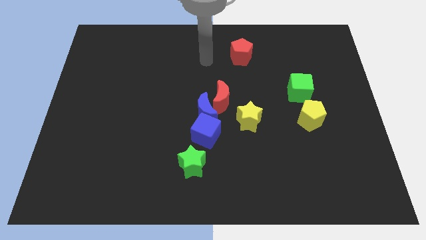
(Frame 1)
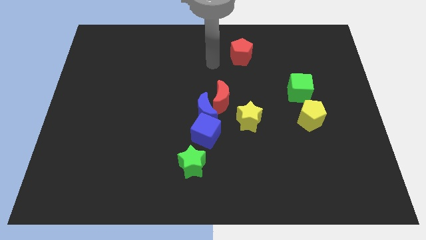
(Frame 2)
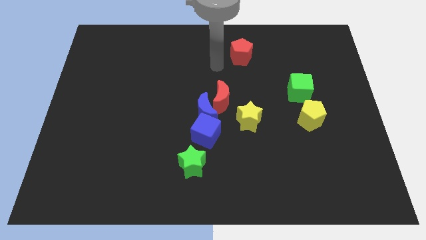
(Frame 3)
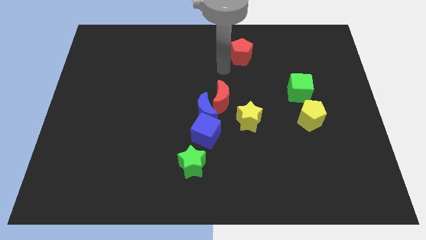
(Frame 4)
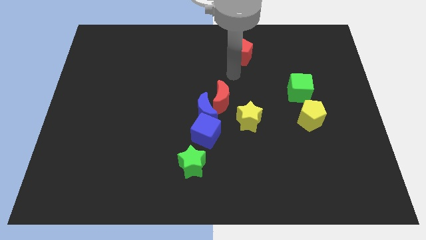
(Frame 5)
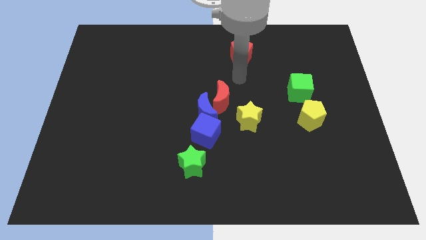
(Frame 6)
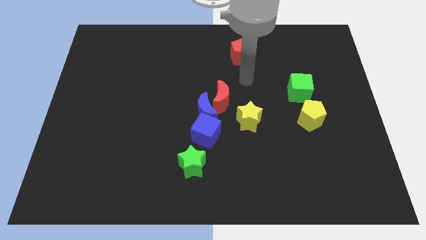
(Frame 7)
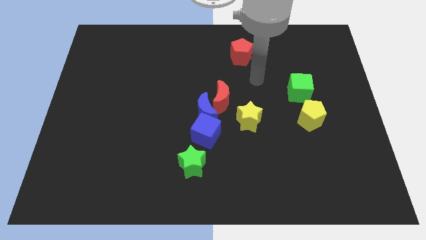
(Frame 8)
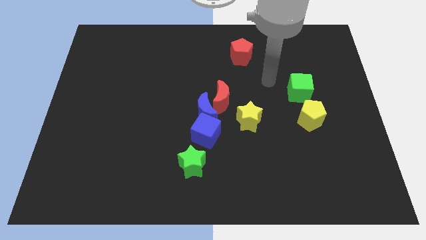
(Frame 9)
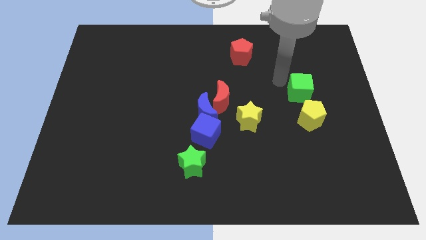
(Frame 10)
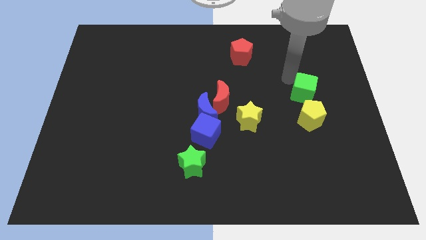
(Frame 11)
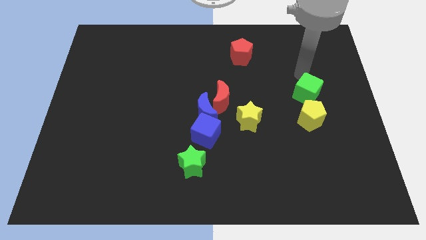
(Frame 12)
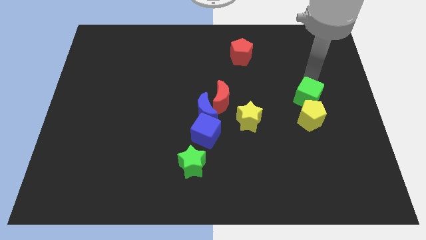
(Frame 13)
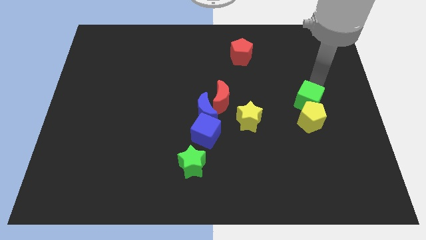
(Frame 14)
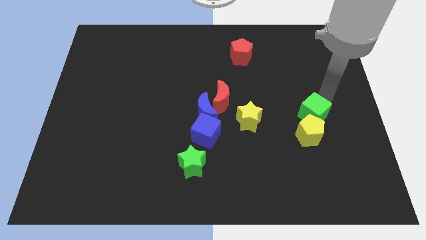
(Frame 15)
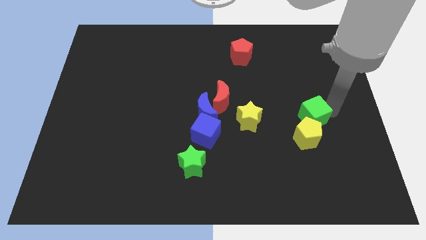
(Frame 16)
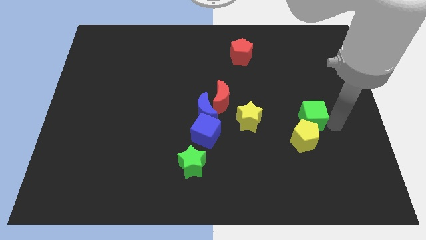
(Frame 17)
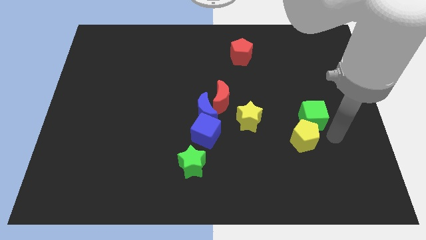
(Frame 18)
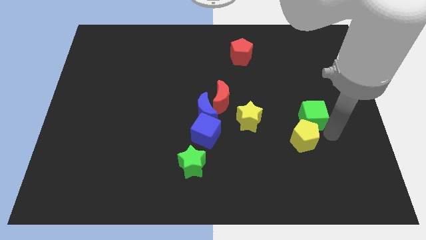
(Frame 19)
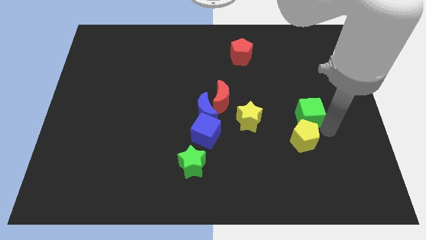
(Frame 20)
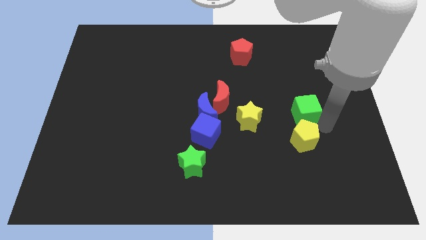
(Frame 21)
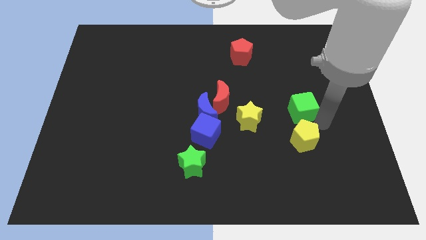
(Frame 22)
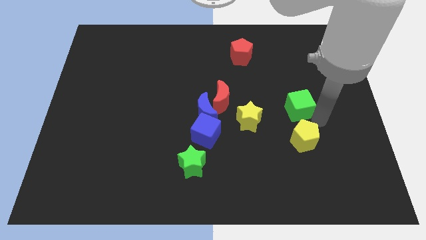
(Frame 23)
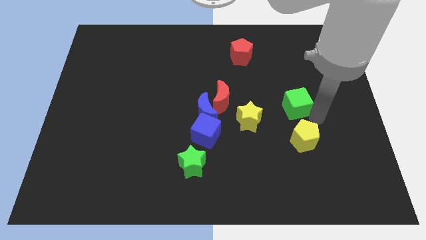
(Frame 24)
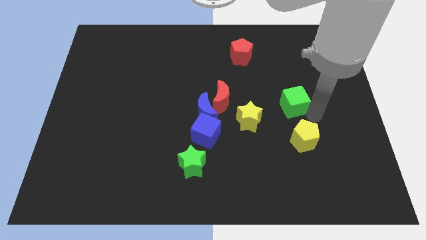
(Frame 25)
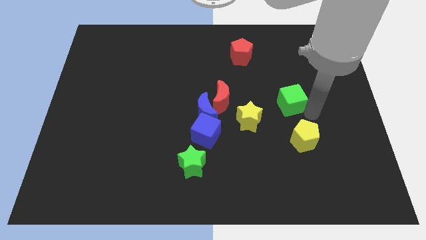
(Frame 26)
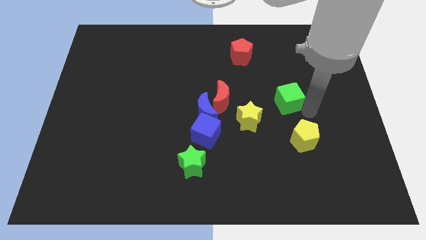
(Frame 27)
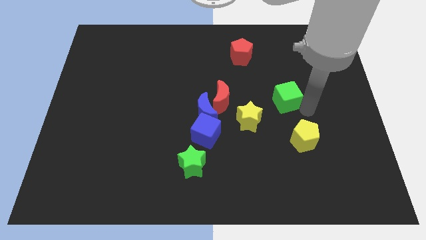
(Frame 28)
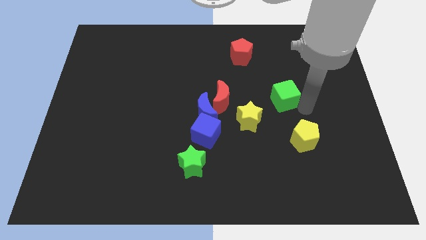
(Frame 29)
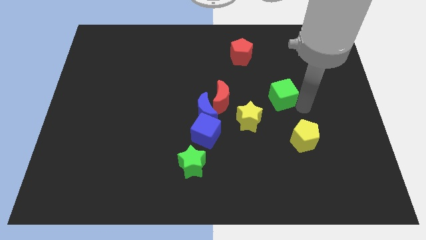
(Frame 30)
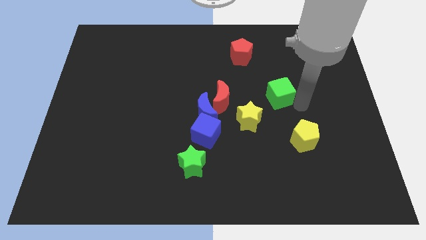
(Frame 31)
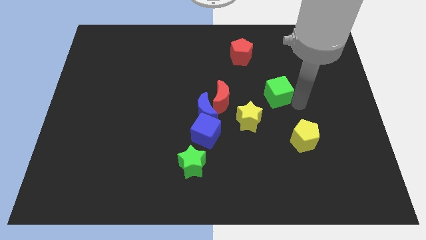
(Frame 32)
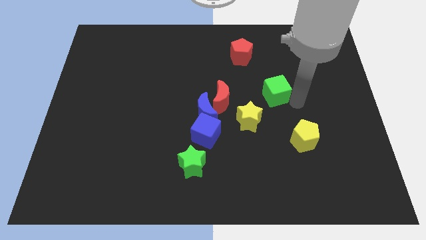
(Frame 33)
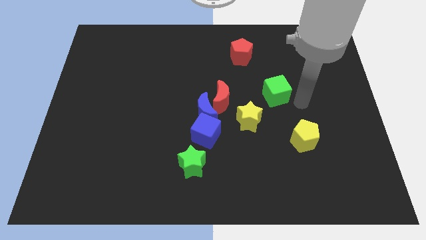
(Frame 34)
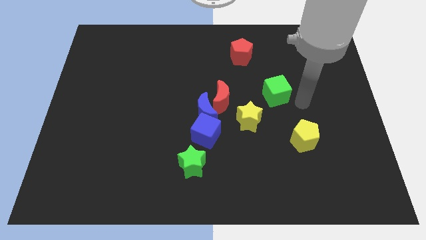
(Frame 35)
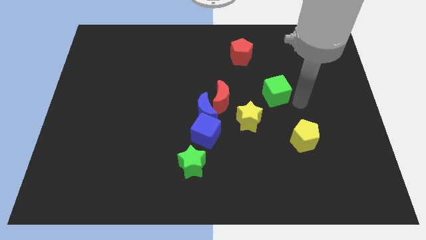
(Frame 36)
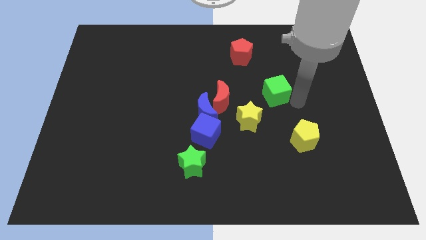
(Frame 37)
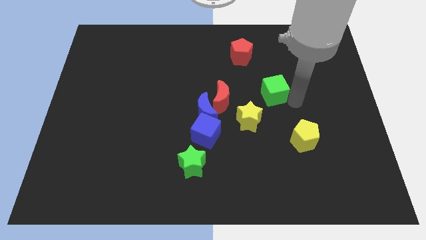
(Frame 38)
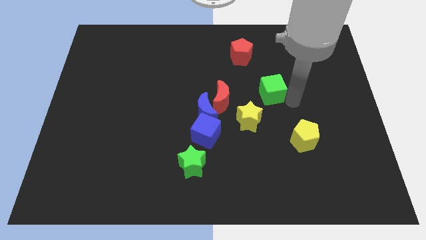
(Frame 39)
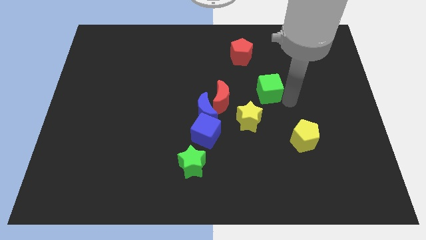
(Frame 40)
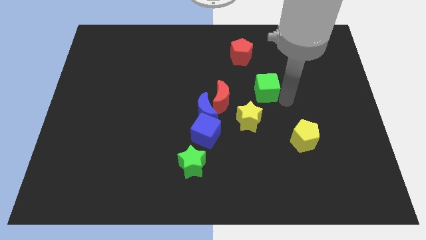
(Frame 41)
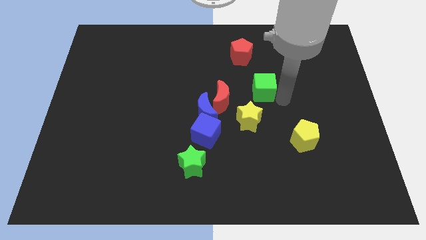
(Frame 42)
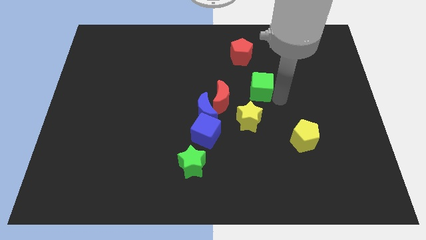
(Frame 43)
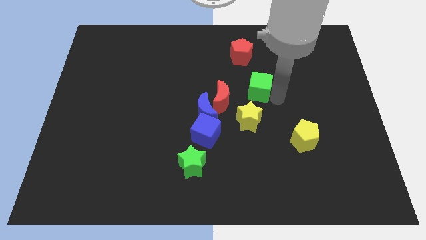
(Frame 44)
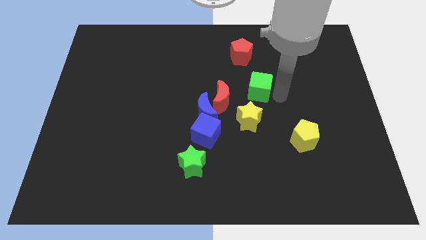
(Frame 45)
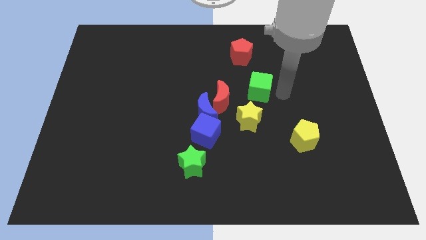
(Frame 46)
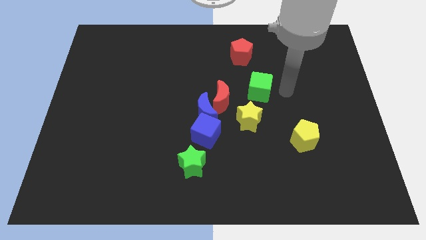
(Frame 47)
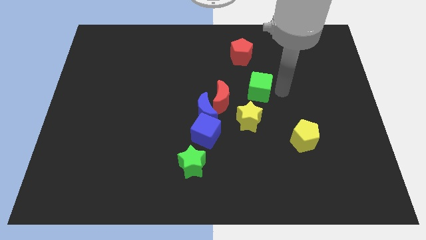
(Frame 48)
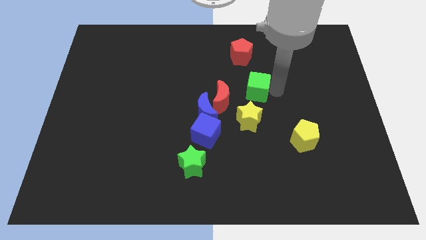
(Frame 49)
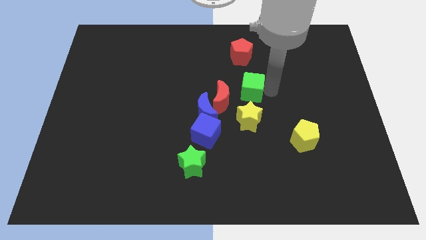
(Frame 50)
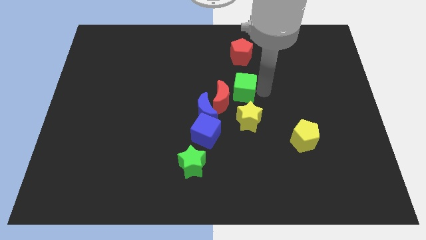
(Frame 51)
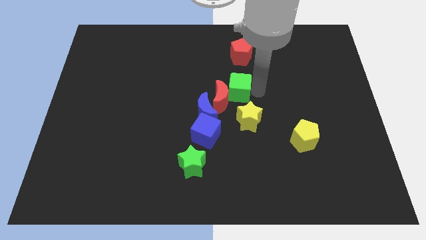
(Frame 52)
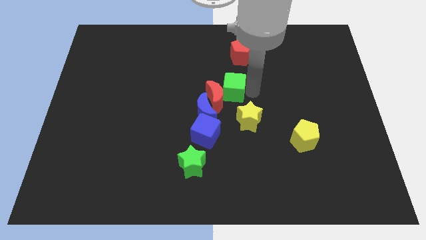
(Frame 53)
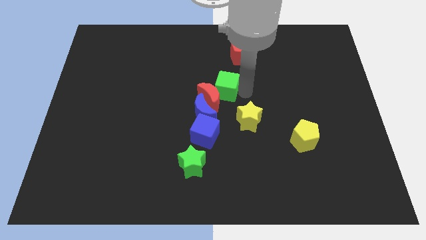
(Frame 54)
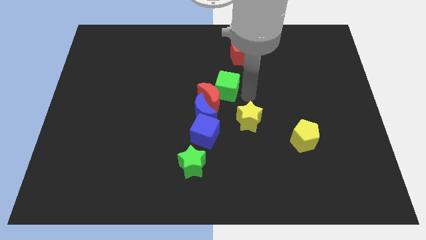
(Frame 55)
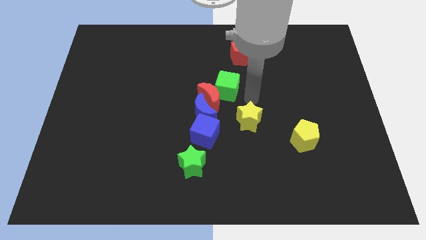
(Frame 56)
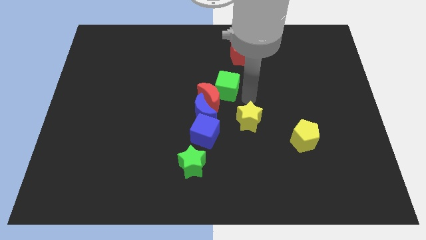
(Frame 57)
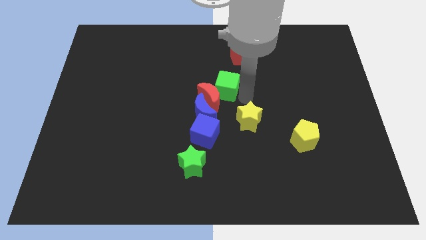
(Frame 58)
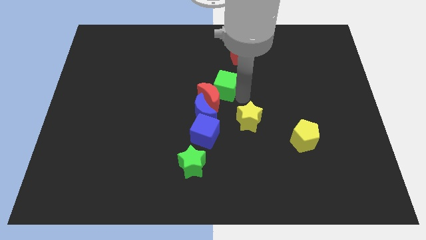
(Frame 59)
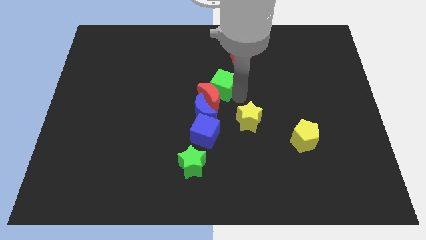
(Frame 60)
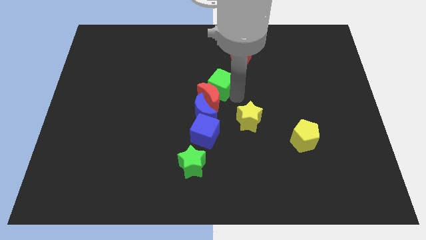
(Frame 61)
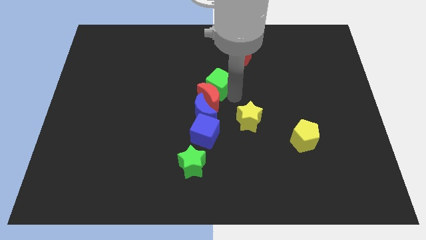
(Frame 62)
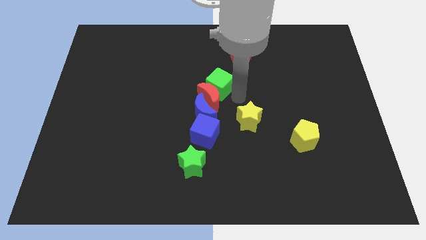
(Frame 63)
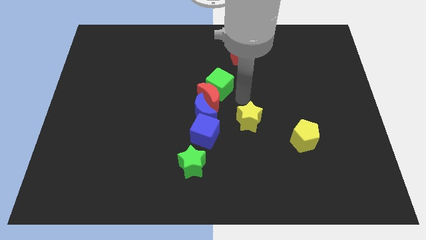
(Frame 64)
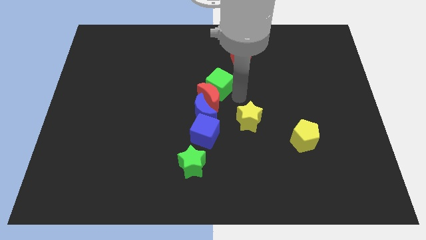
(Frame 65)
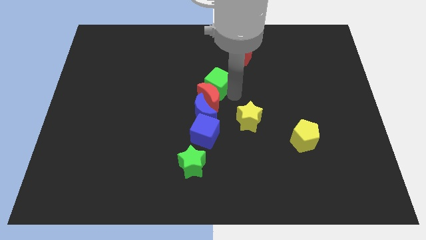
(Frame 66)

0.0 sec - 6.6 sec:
push the green cube left

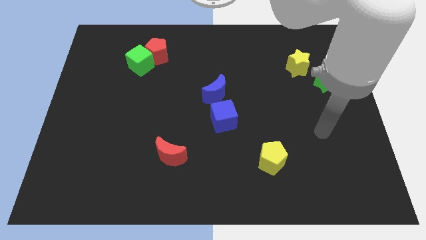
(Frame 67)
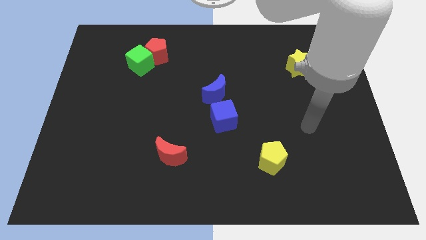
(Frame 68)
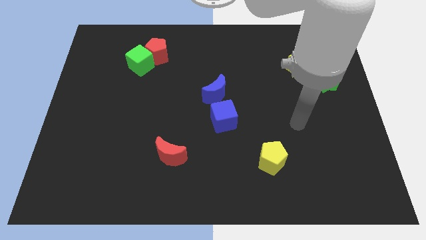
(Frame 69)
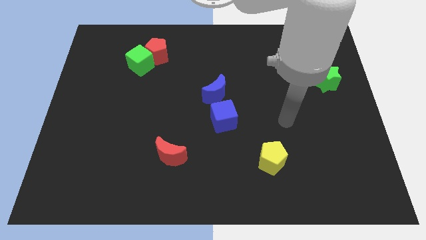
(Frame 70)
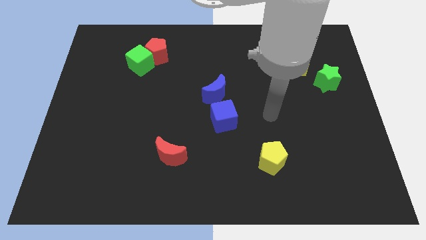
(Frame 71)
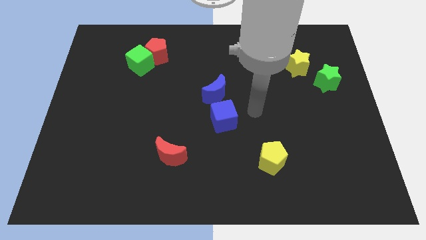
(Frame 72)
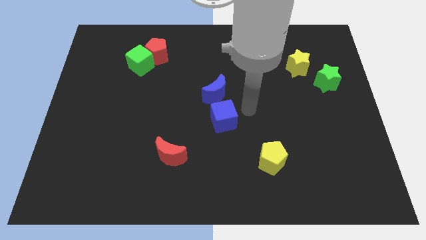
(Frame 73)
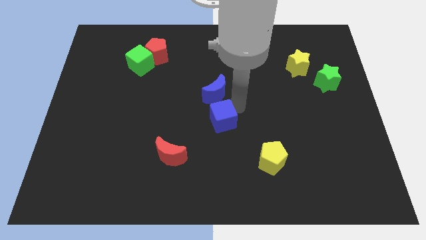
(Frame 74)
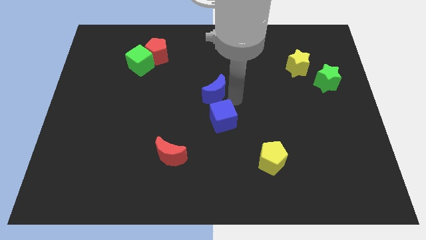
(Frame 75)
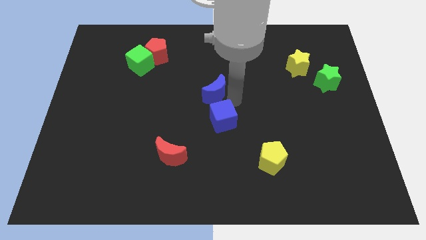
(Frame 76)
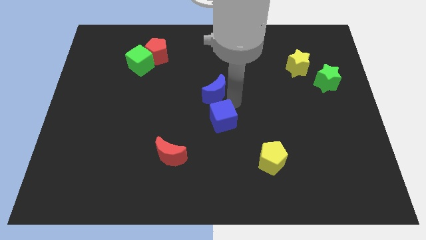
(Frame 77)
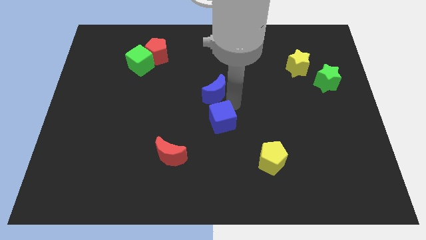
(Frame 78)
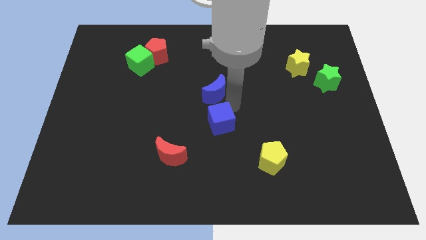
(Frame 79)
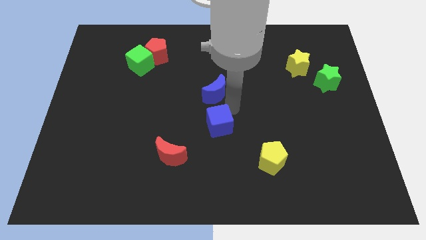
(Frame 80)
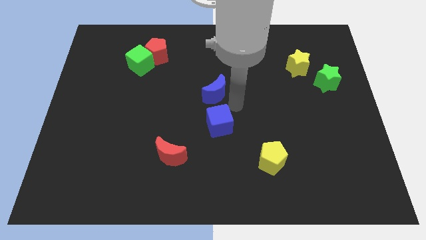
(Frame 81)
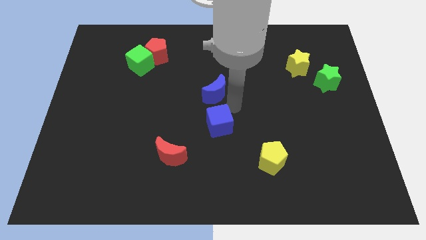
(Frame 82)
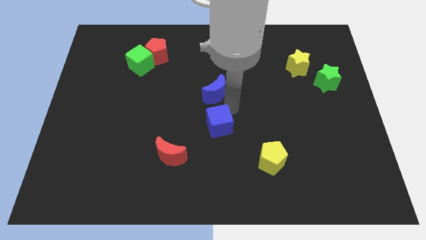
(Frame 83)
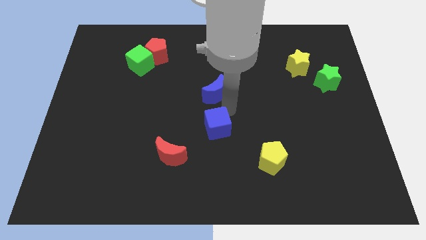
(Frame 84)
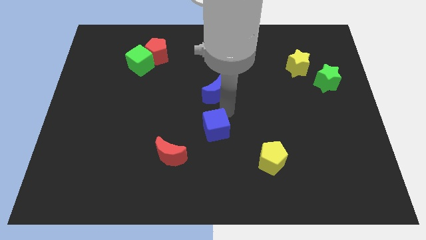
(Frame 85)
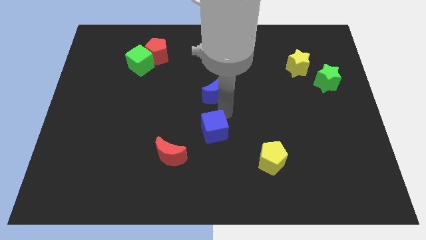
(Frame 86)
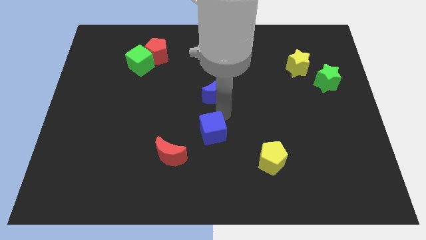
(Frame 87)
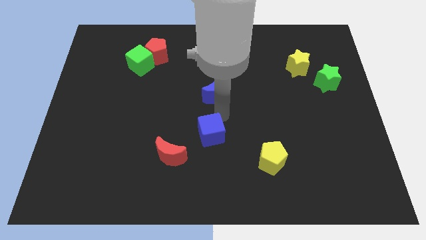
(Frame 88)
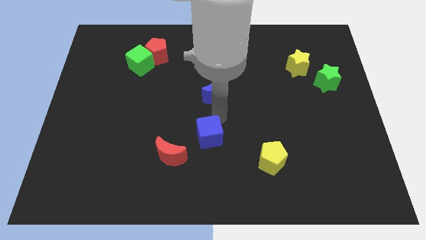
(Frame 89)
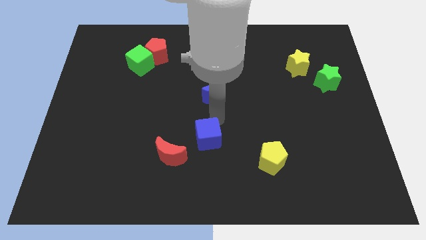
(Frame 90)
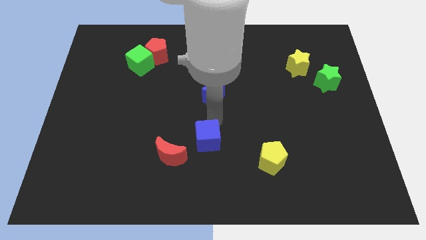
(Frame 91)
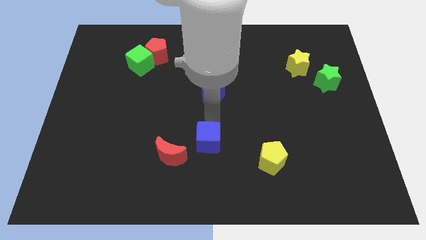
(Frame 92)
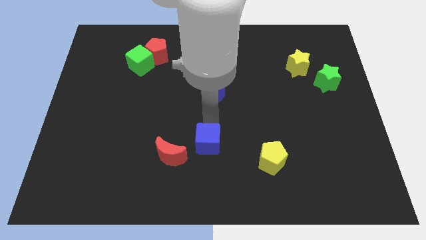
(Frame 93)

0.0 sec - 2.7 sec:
slide the blue cube down and to the left slightly
